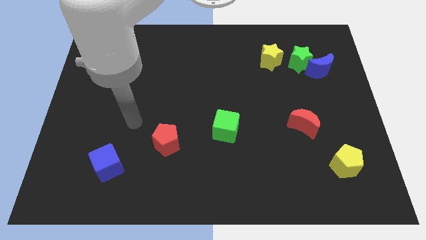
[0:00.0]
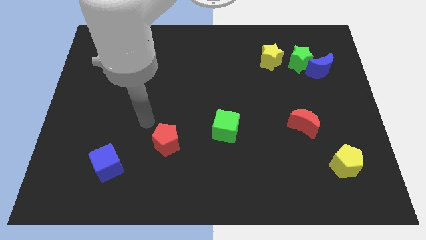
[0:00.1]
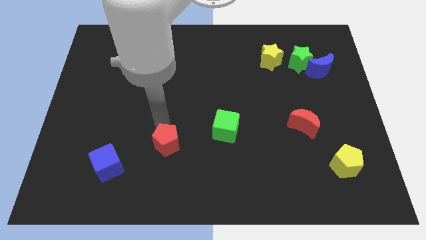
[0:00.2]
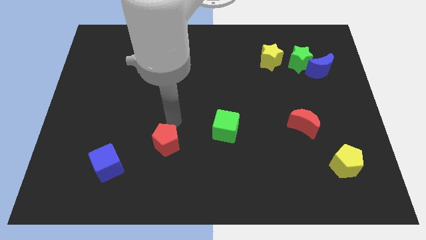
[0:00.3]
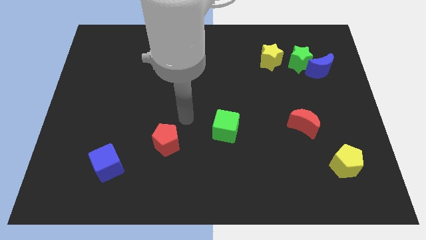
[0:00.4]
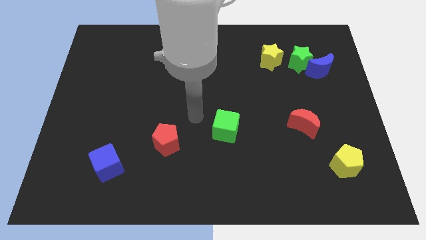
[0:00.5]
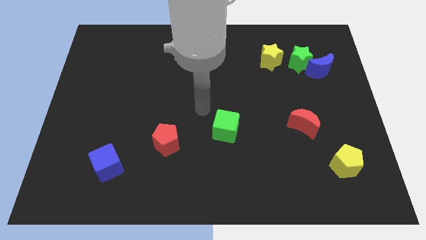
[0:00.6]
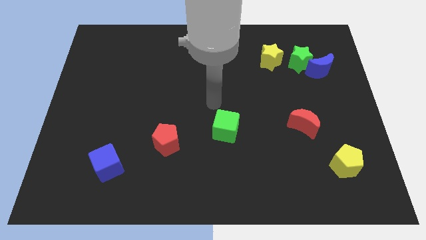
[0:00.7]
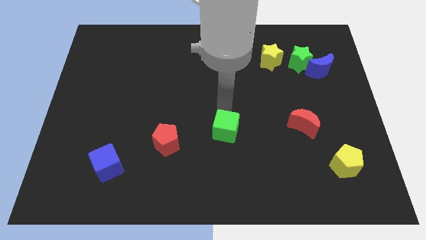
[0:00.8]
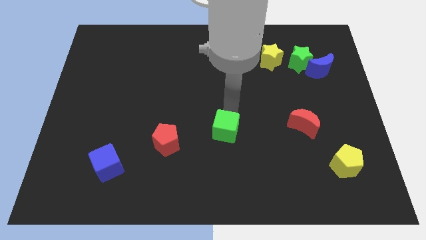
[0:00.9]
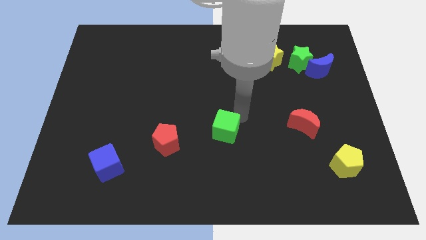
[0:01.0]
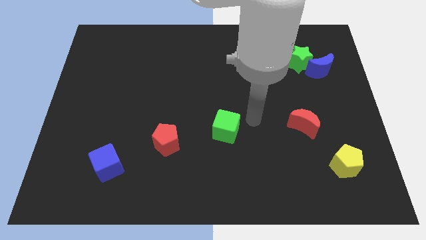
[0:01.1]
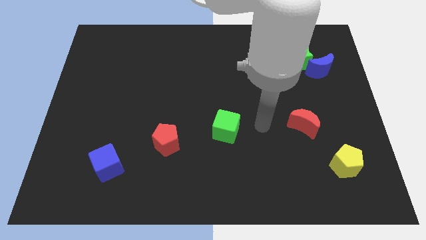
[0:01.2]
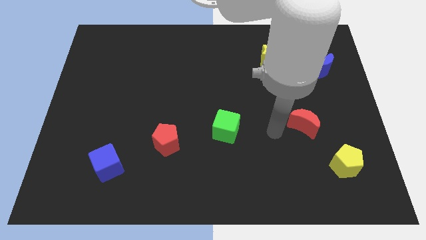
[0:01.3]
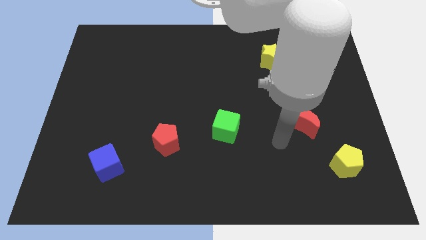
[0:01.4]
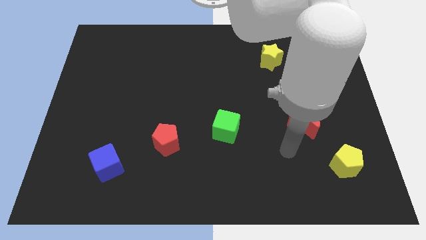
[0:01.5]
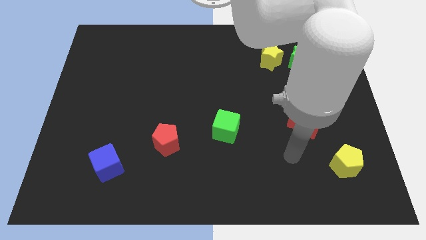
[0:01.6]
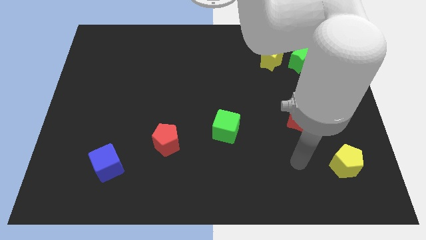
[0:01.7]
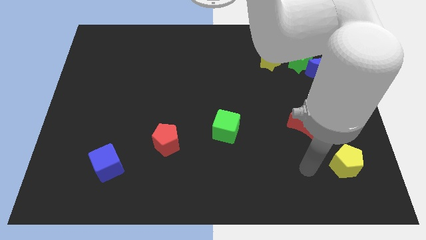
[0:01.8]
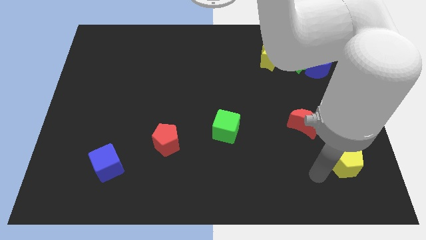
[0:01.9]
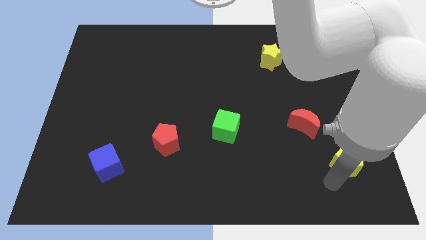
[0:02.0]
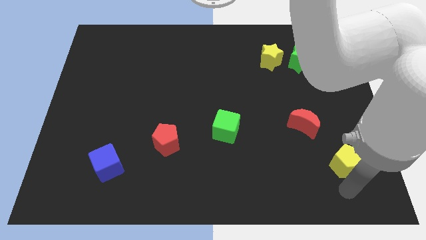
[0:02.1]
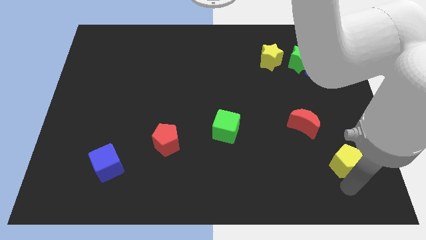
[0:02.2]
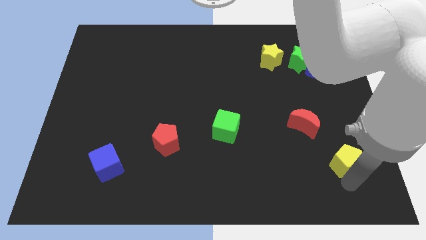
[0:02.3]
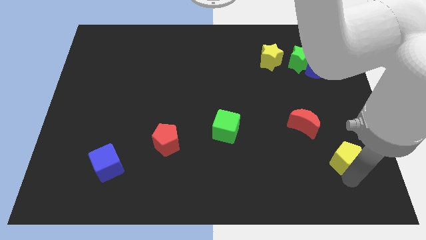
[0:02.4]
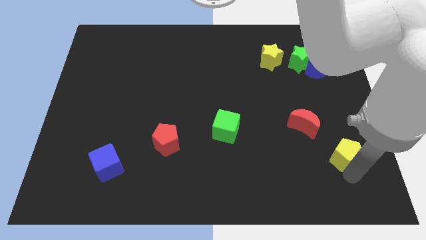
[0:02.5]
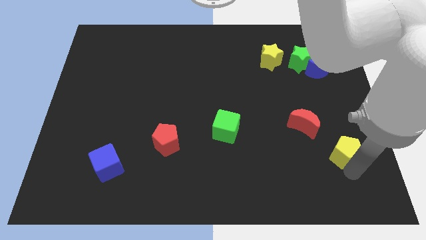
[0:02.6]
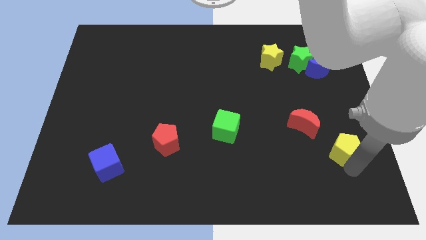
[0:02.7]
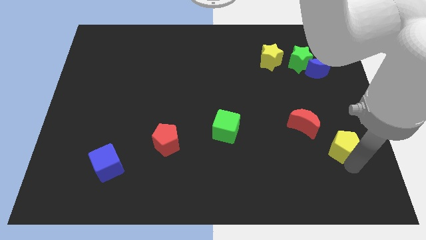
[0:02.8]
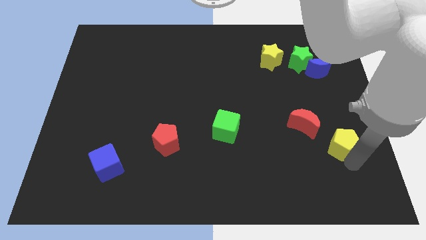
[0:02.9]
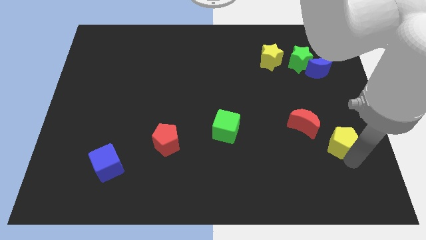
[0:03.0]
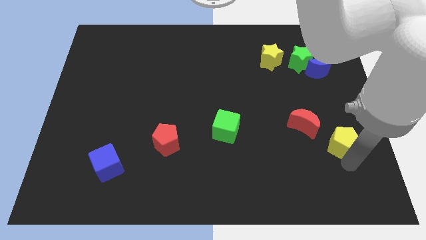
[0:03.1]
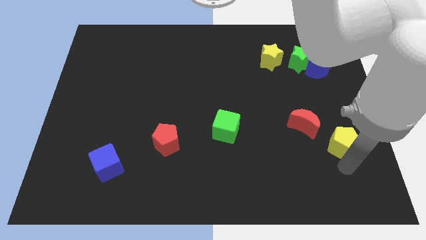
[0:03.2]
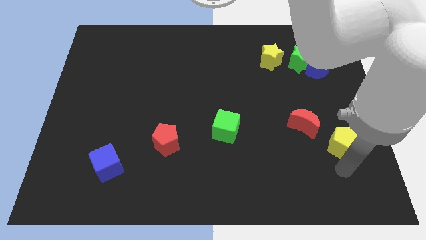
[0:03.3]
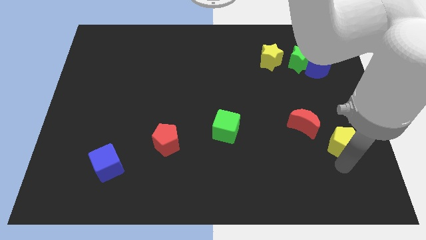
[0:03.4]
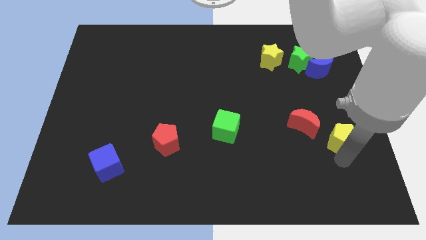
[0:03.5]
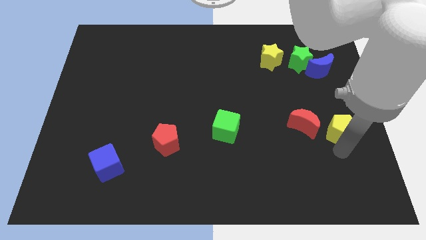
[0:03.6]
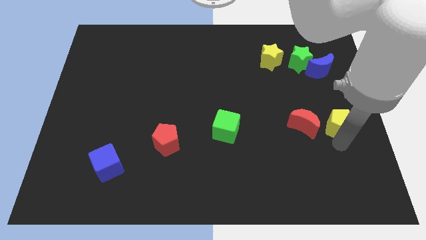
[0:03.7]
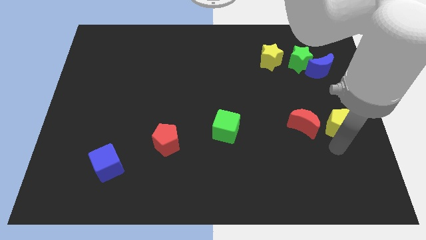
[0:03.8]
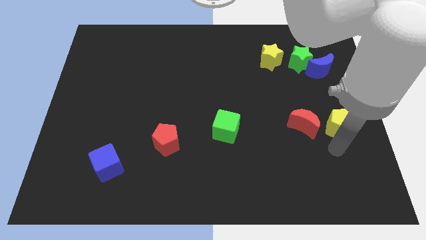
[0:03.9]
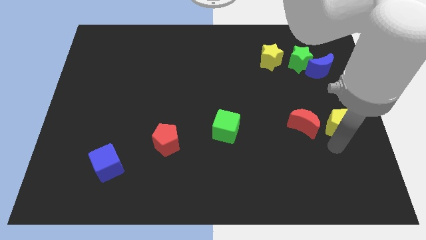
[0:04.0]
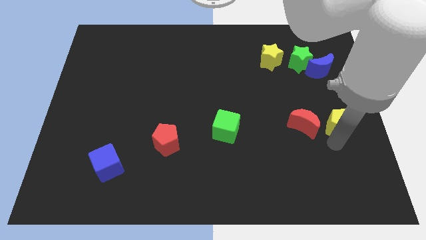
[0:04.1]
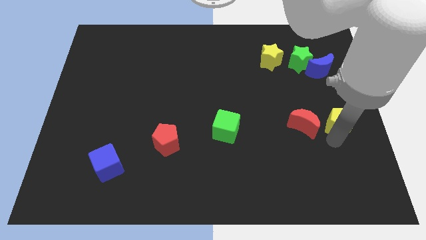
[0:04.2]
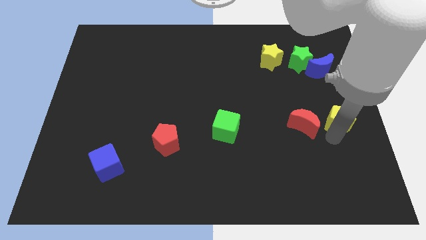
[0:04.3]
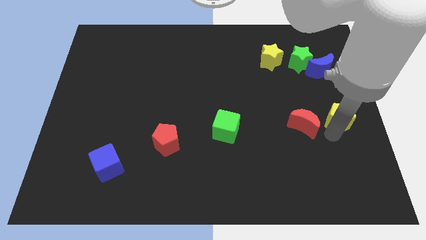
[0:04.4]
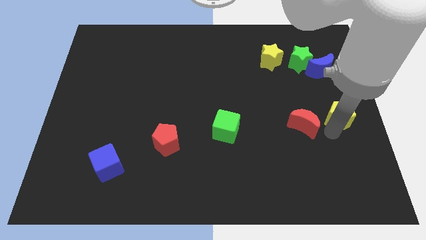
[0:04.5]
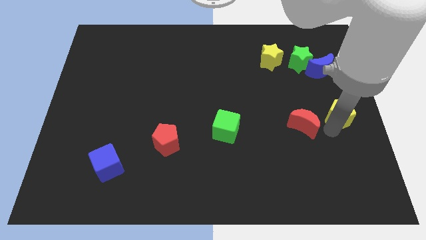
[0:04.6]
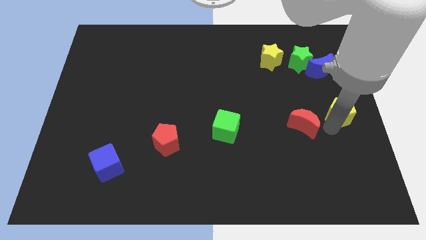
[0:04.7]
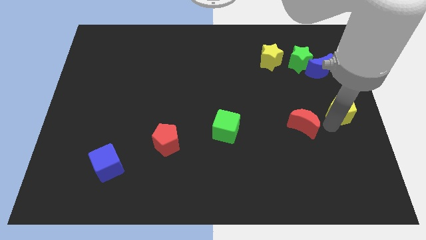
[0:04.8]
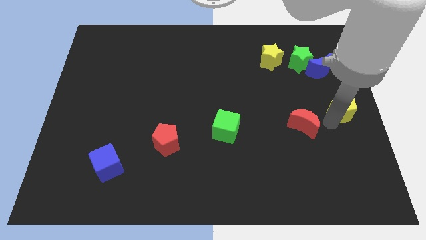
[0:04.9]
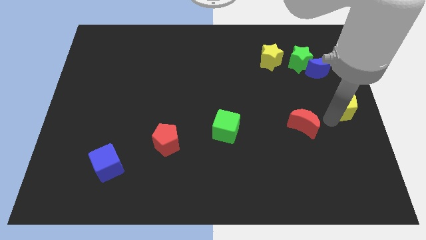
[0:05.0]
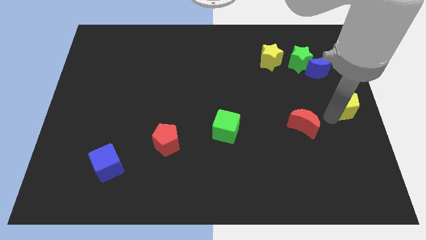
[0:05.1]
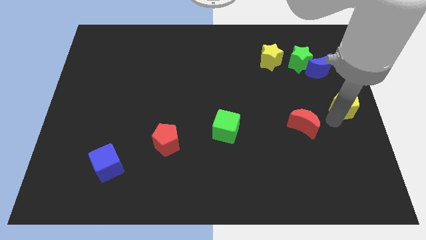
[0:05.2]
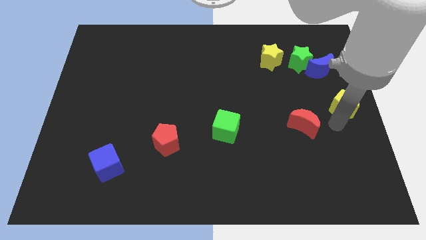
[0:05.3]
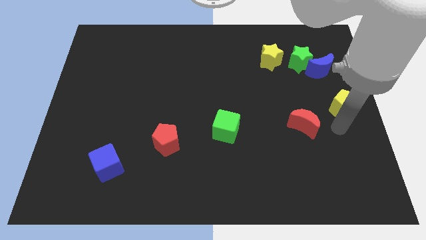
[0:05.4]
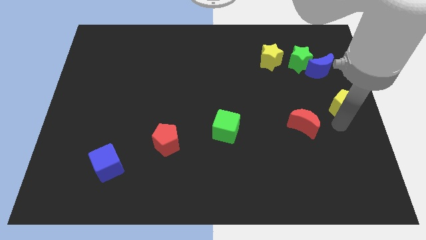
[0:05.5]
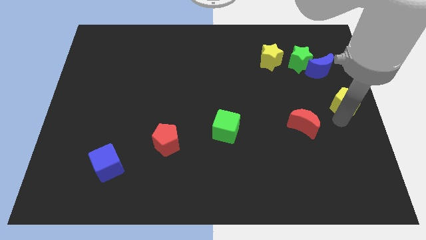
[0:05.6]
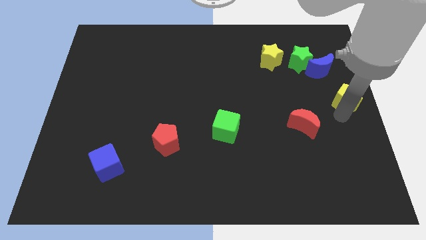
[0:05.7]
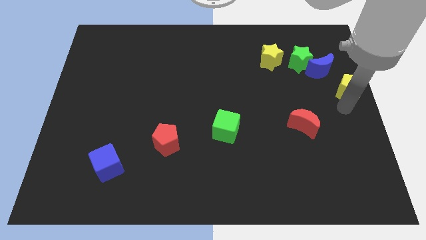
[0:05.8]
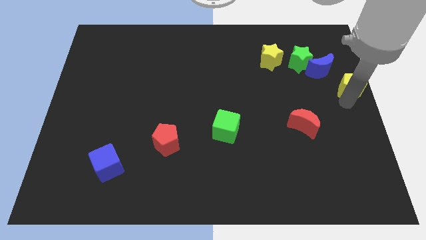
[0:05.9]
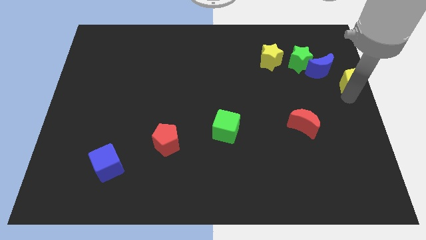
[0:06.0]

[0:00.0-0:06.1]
push the yellow pentagon upwards

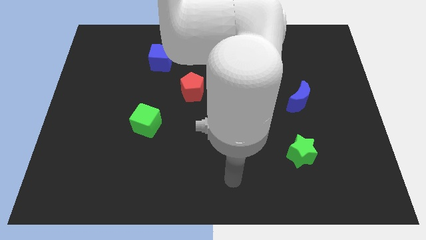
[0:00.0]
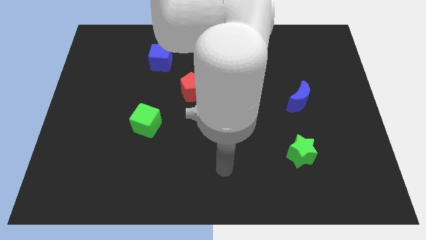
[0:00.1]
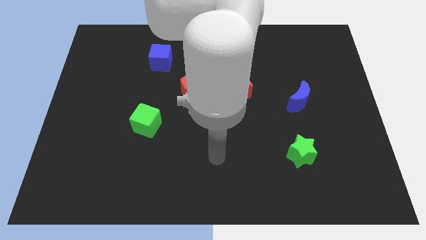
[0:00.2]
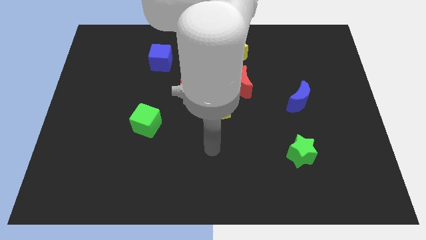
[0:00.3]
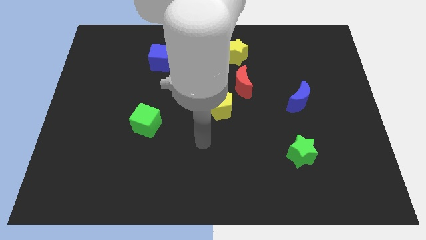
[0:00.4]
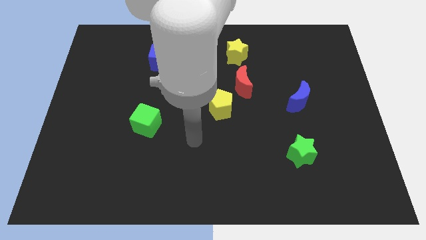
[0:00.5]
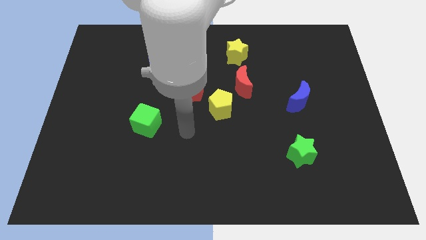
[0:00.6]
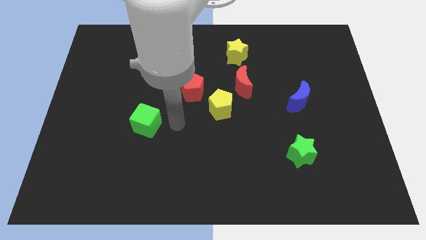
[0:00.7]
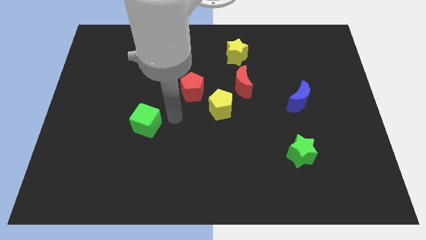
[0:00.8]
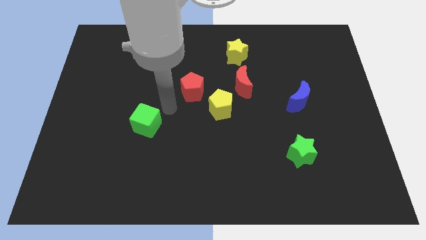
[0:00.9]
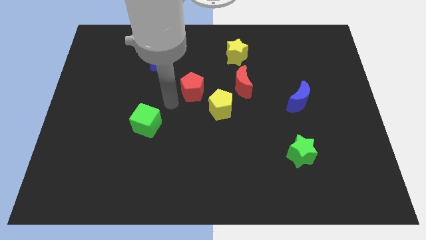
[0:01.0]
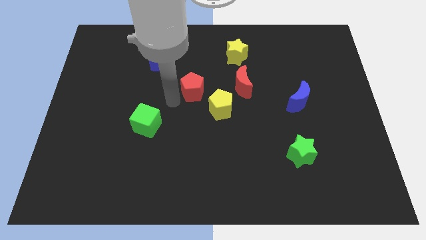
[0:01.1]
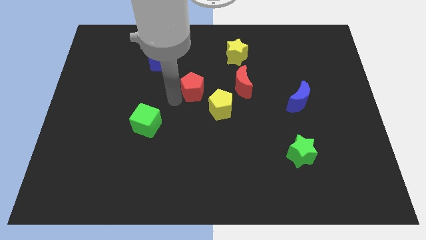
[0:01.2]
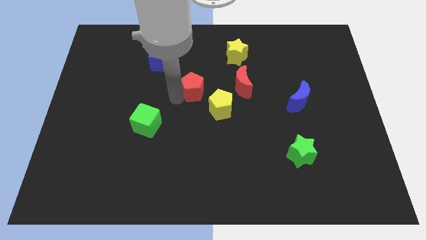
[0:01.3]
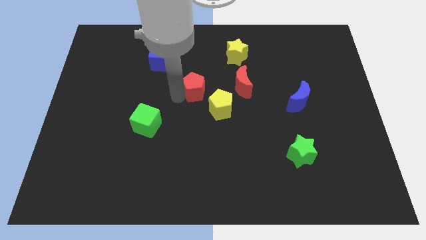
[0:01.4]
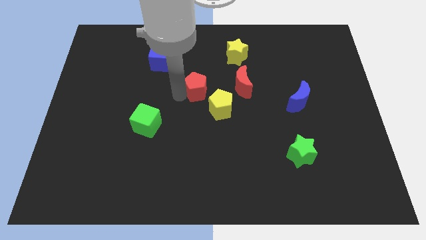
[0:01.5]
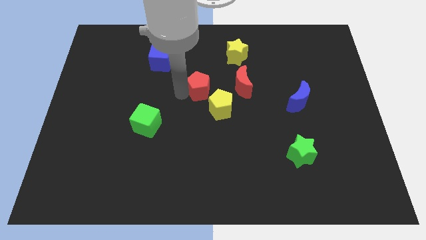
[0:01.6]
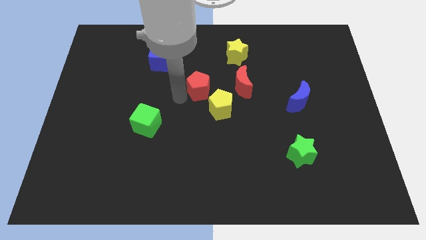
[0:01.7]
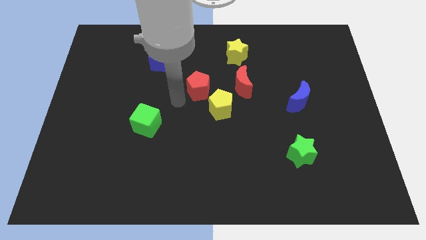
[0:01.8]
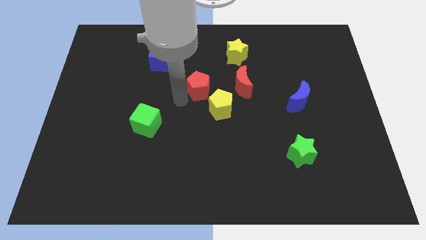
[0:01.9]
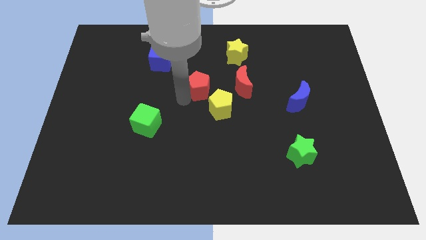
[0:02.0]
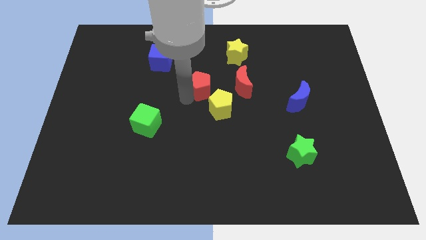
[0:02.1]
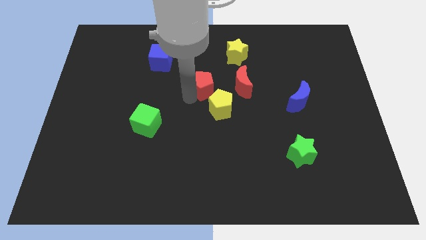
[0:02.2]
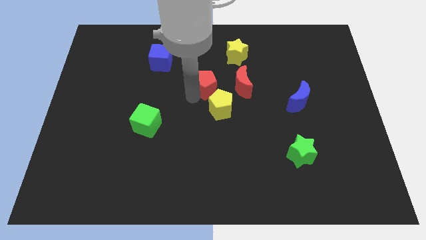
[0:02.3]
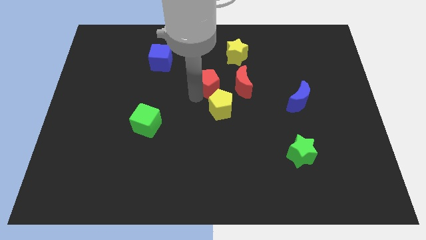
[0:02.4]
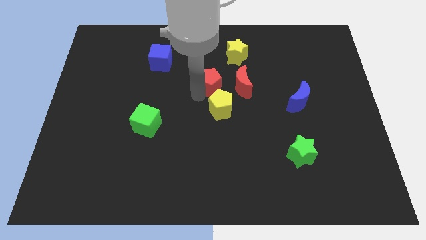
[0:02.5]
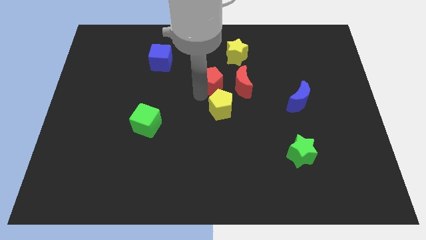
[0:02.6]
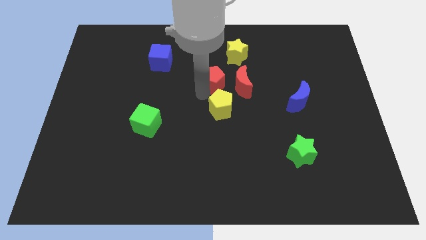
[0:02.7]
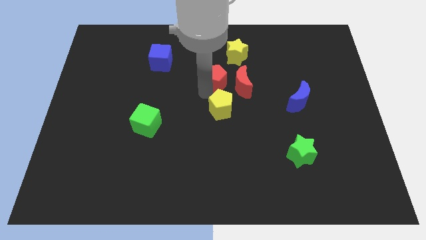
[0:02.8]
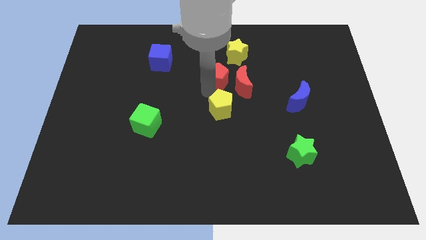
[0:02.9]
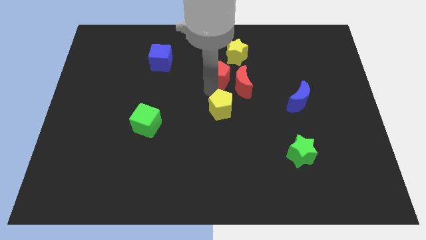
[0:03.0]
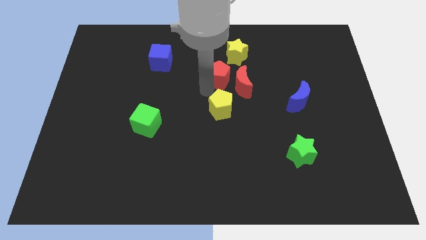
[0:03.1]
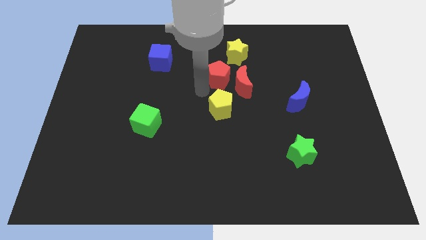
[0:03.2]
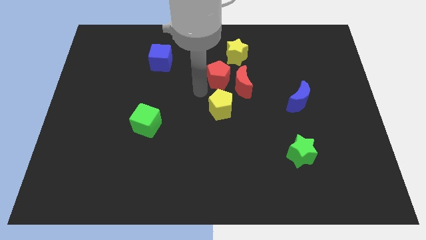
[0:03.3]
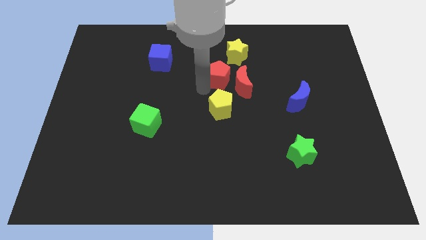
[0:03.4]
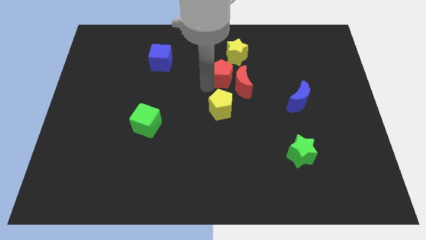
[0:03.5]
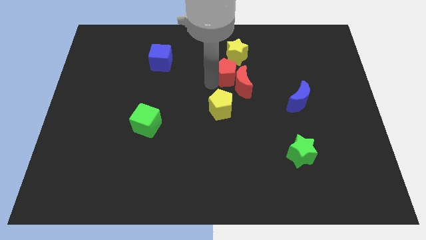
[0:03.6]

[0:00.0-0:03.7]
slightly slide the red pentagon right
